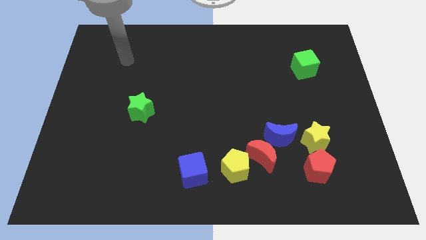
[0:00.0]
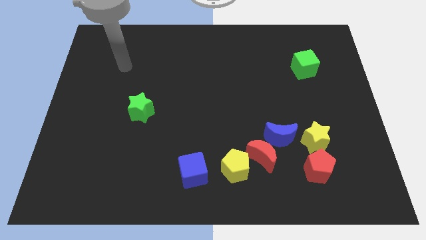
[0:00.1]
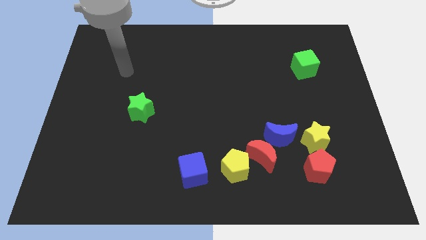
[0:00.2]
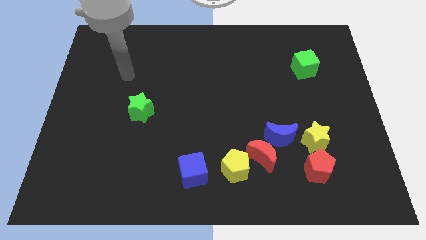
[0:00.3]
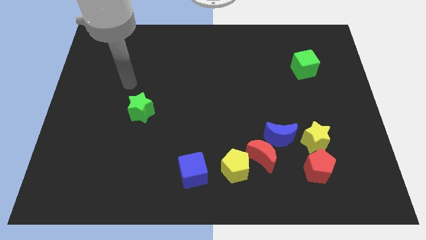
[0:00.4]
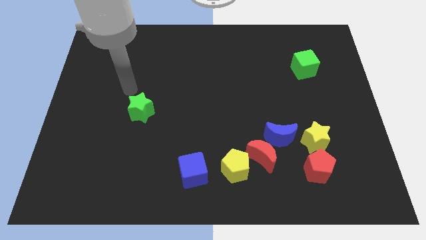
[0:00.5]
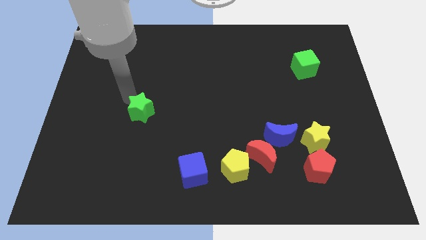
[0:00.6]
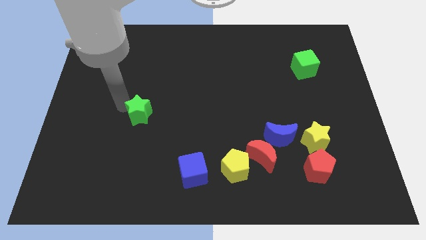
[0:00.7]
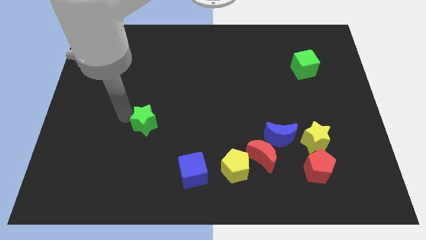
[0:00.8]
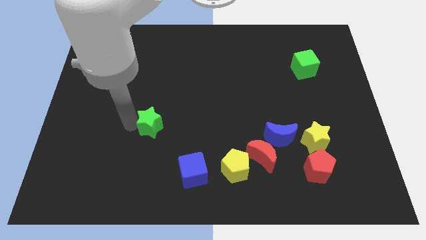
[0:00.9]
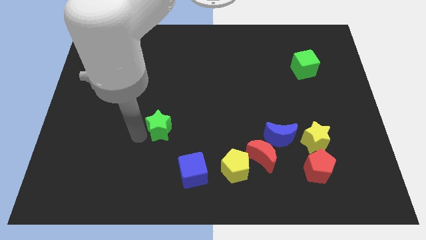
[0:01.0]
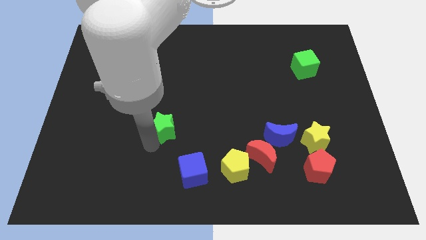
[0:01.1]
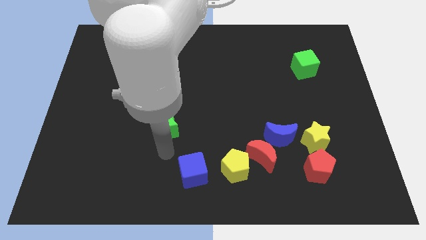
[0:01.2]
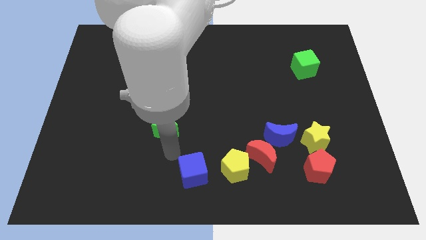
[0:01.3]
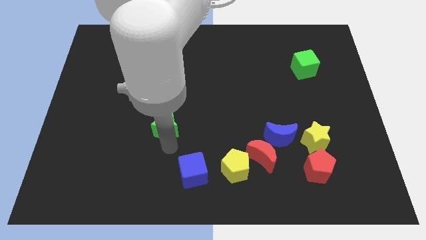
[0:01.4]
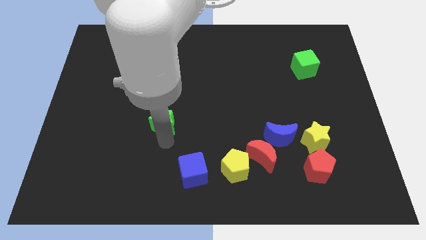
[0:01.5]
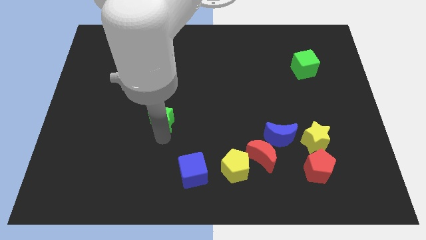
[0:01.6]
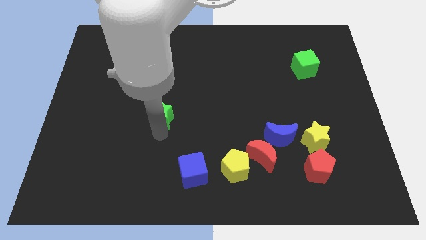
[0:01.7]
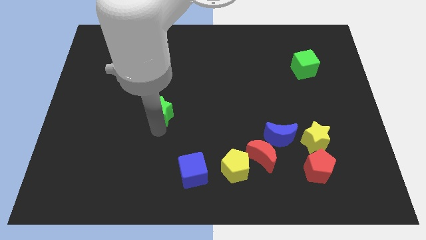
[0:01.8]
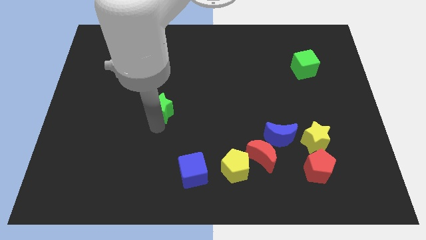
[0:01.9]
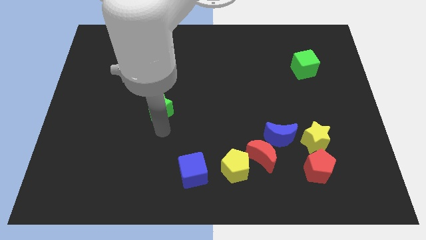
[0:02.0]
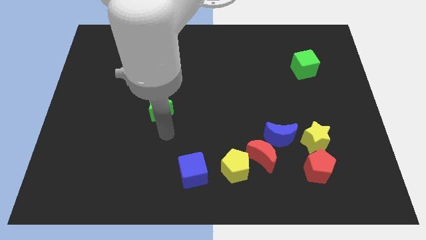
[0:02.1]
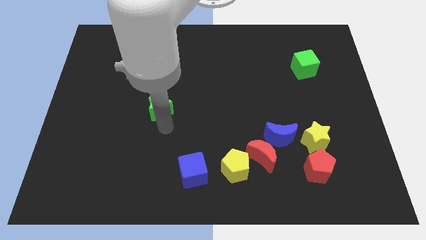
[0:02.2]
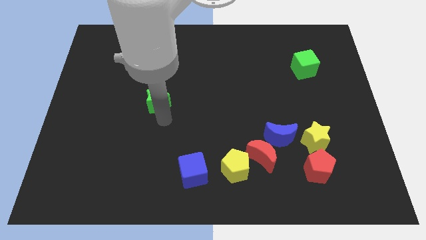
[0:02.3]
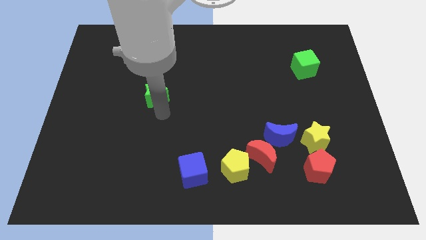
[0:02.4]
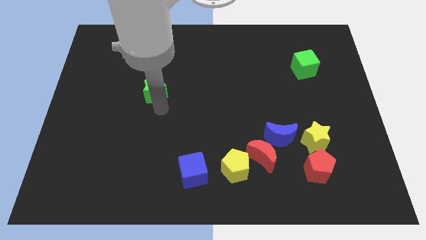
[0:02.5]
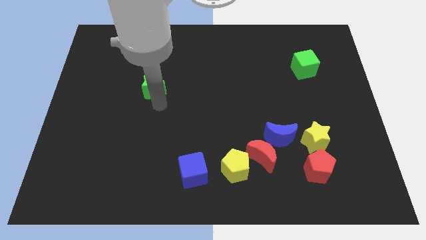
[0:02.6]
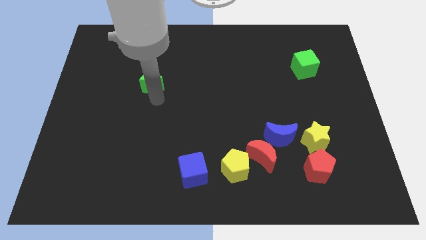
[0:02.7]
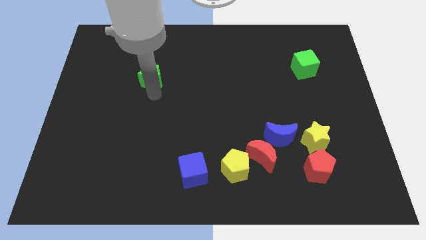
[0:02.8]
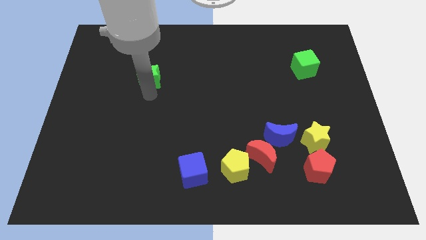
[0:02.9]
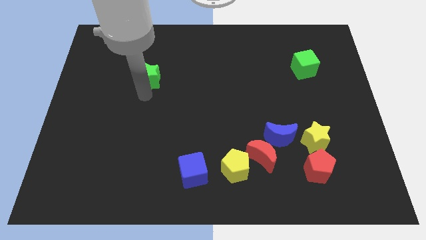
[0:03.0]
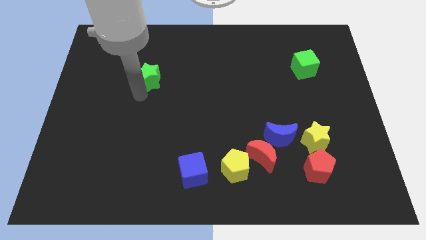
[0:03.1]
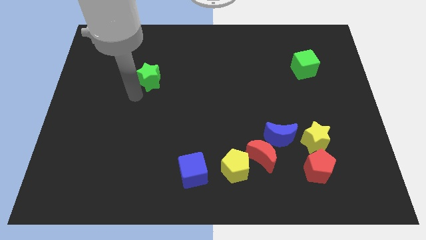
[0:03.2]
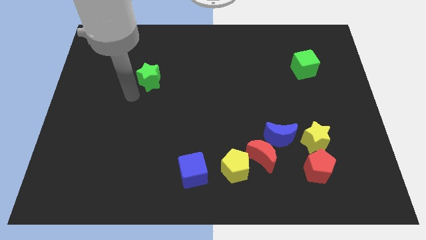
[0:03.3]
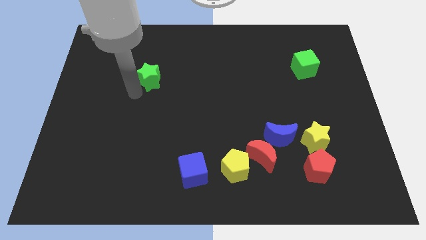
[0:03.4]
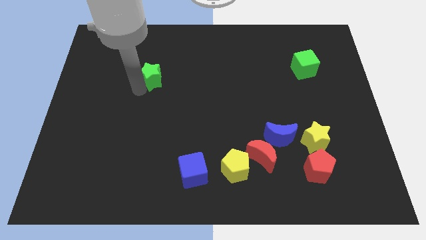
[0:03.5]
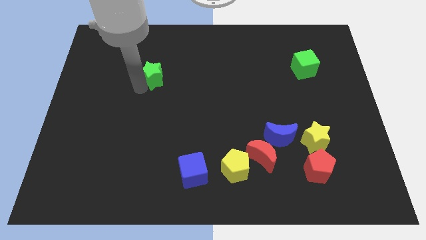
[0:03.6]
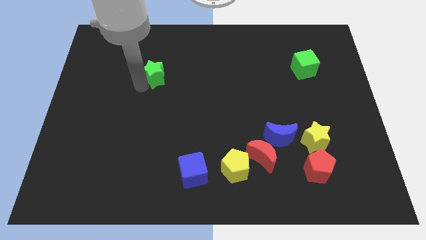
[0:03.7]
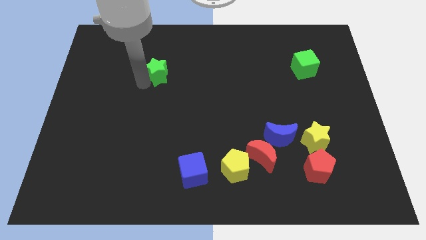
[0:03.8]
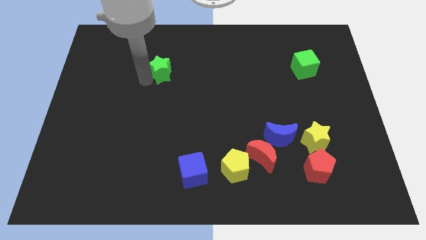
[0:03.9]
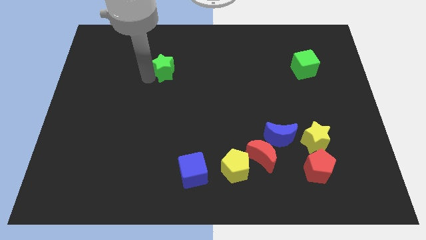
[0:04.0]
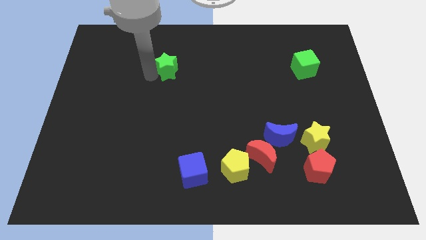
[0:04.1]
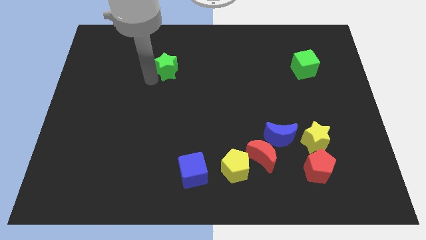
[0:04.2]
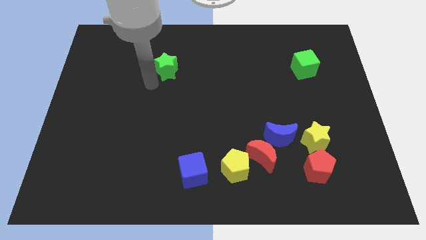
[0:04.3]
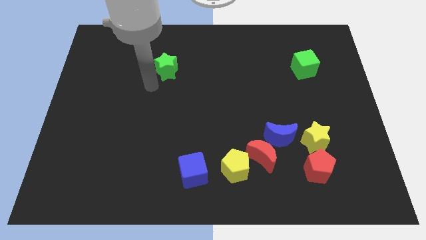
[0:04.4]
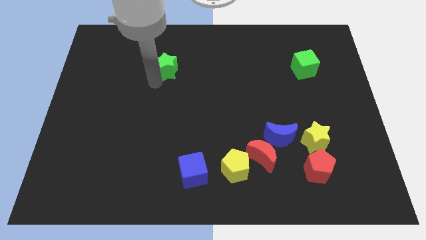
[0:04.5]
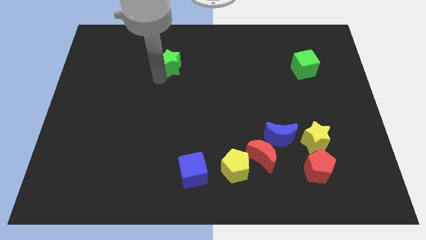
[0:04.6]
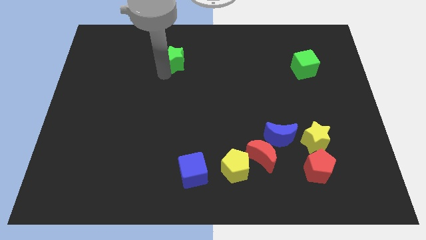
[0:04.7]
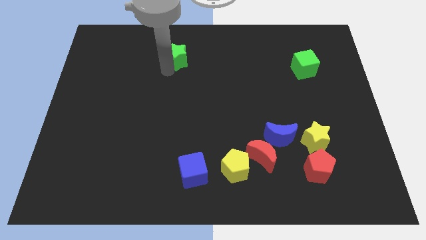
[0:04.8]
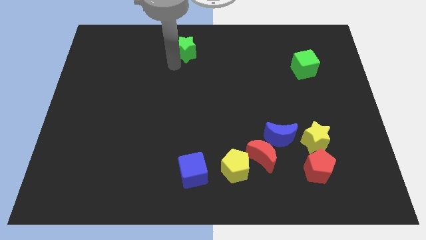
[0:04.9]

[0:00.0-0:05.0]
slide the green star to the top side

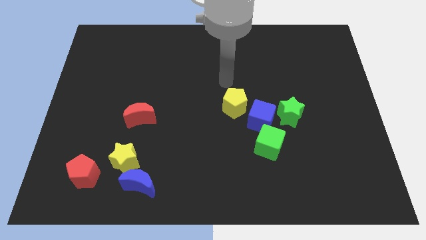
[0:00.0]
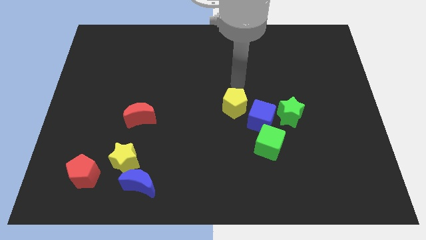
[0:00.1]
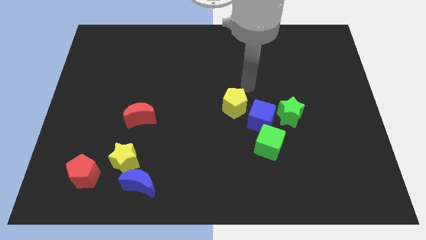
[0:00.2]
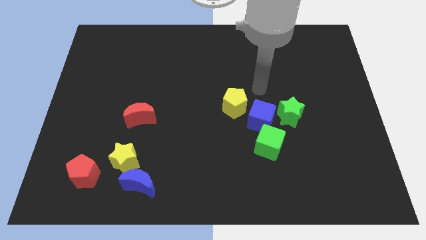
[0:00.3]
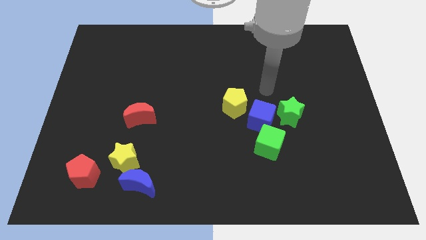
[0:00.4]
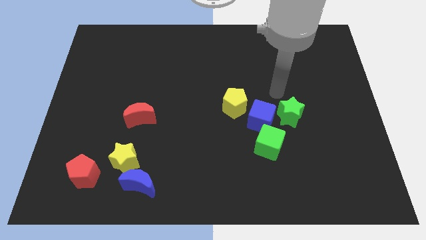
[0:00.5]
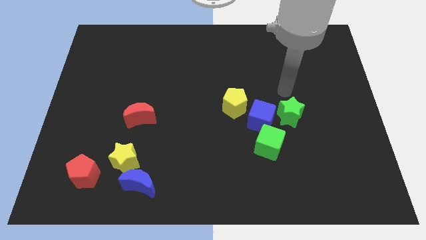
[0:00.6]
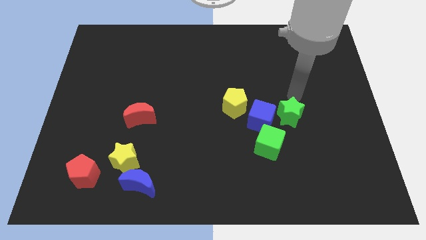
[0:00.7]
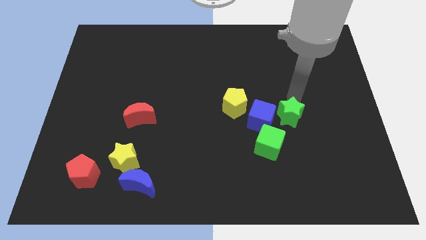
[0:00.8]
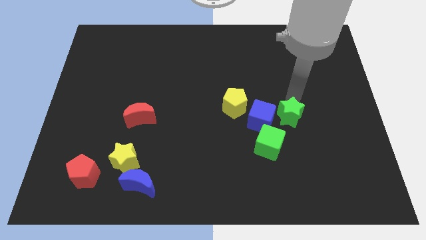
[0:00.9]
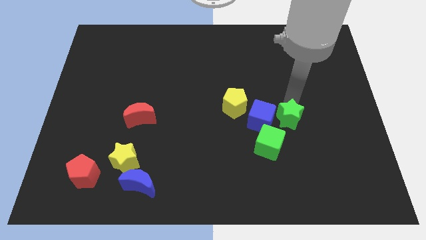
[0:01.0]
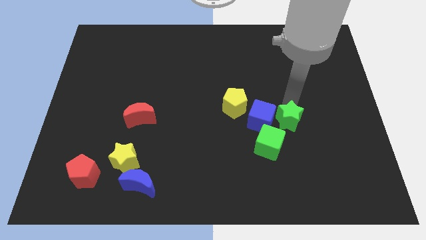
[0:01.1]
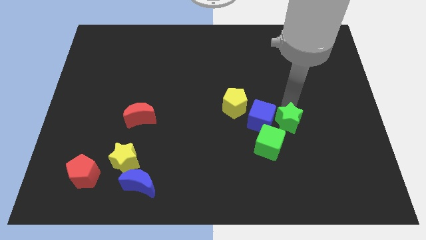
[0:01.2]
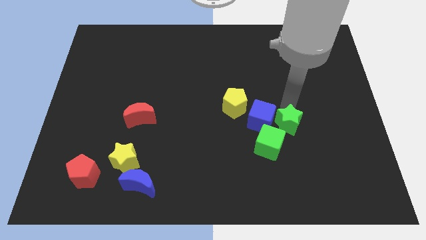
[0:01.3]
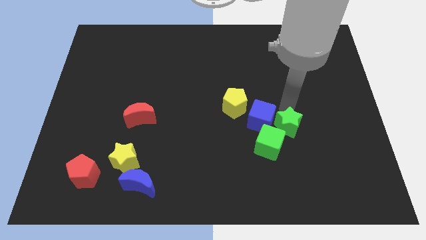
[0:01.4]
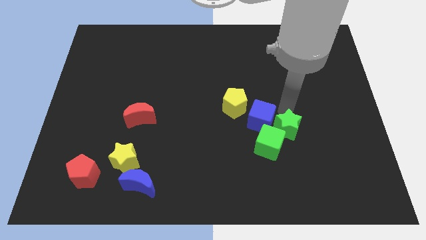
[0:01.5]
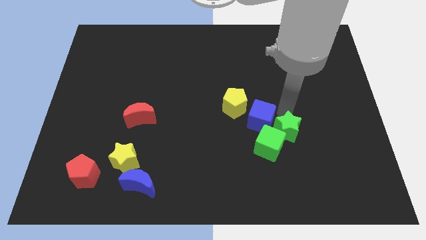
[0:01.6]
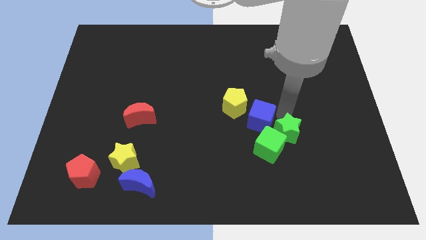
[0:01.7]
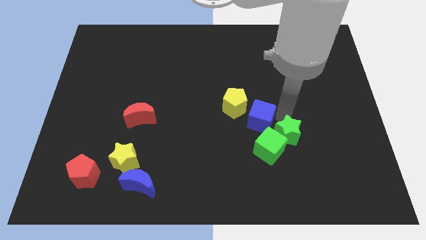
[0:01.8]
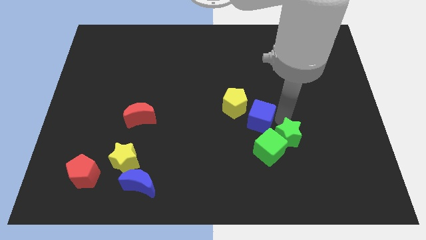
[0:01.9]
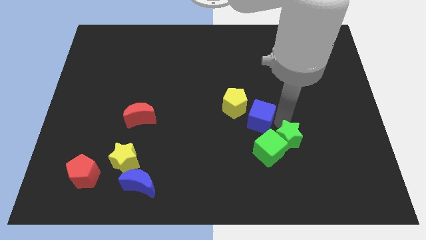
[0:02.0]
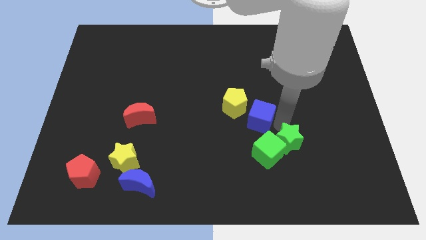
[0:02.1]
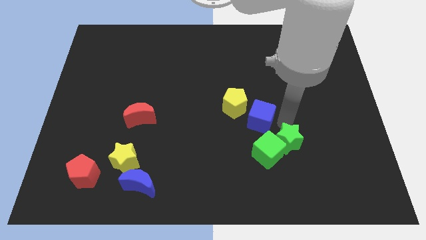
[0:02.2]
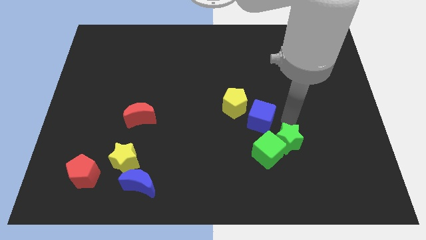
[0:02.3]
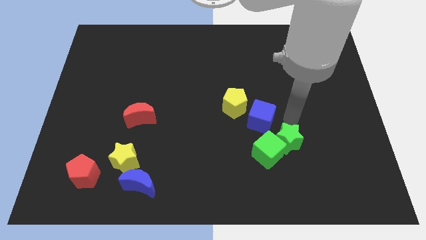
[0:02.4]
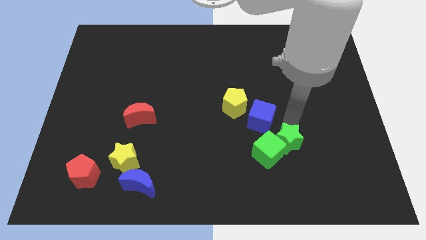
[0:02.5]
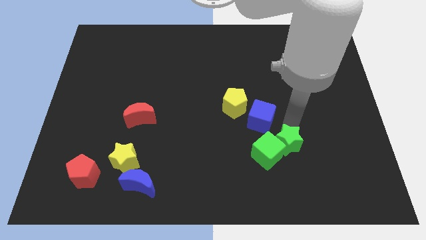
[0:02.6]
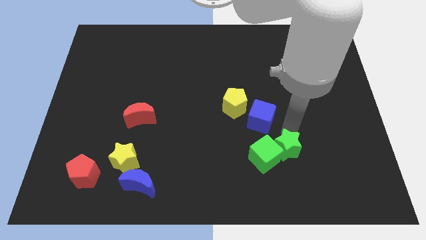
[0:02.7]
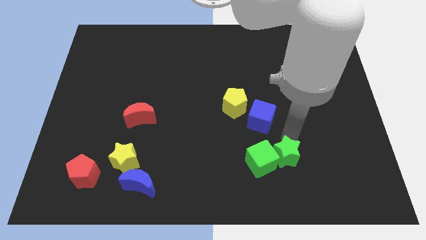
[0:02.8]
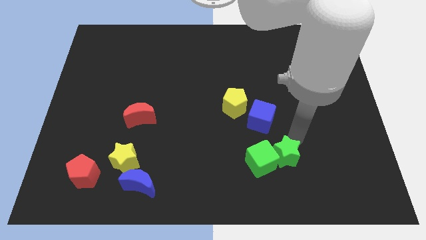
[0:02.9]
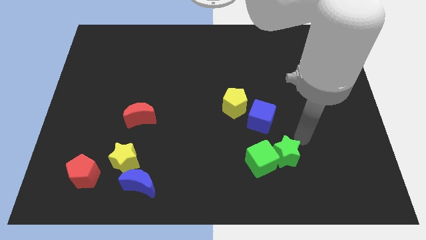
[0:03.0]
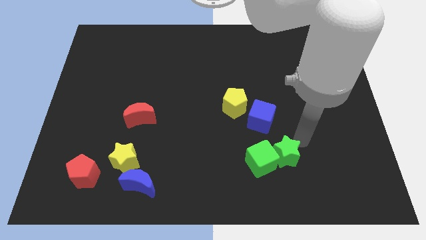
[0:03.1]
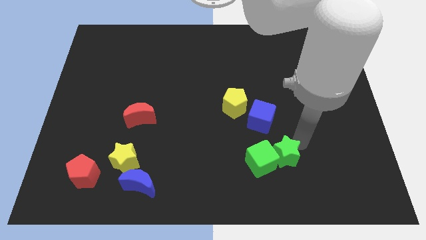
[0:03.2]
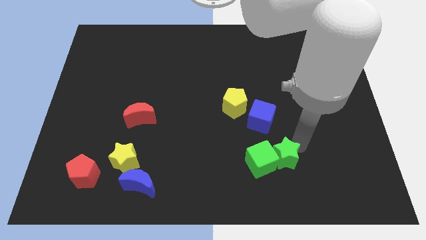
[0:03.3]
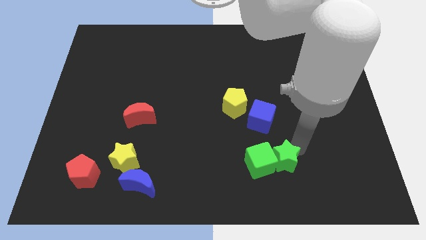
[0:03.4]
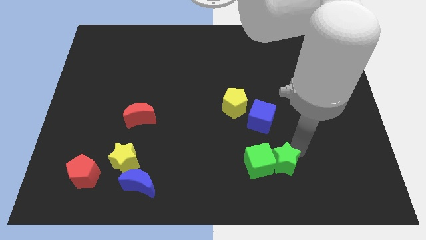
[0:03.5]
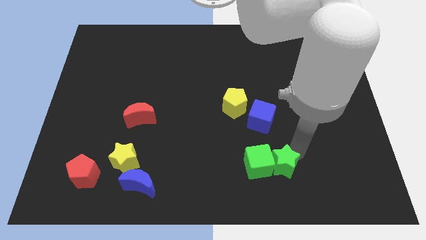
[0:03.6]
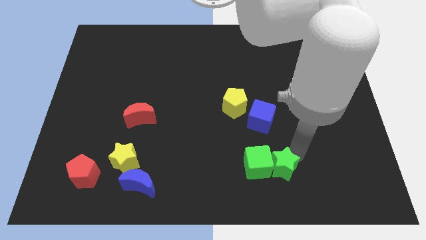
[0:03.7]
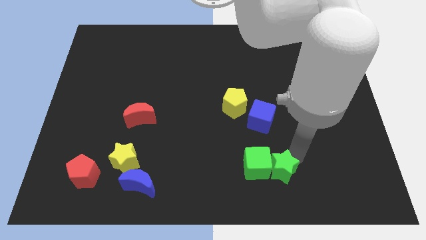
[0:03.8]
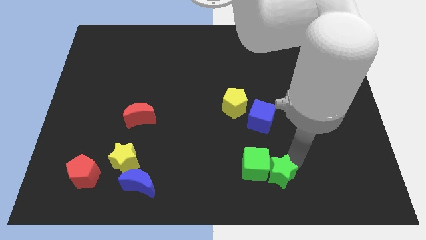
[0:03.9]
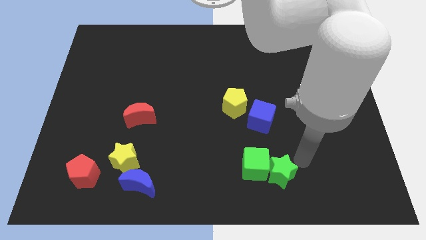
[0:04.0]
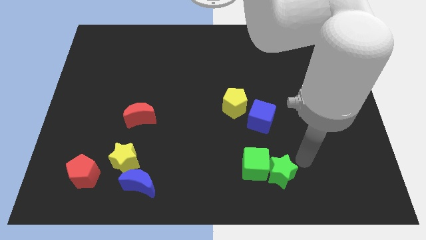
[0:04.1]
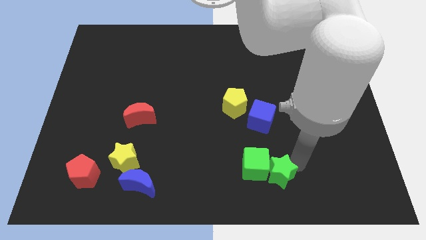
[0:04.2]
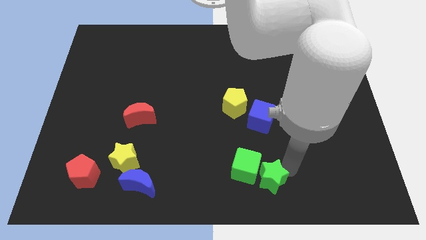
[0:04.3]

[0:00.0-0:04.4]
slide the green star to the bottom
